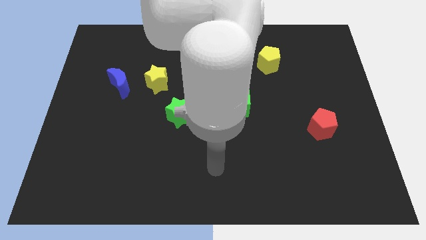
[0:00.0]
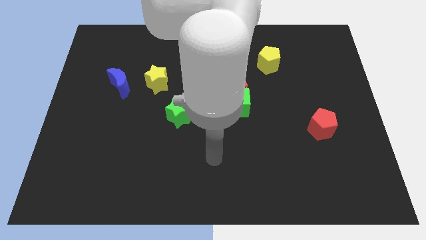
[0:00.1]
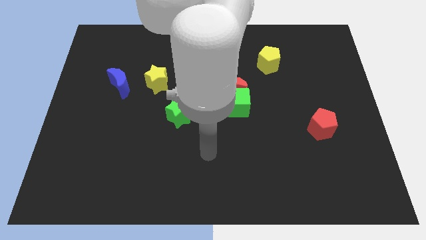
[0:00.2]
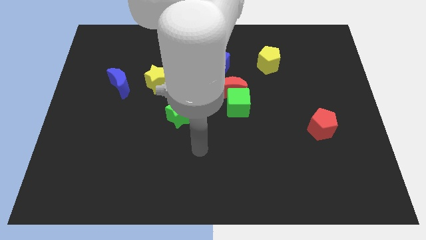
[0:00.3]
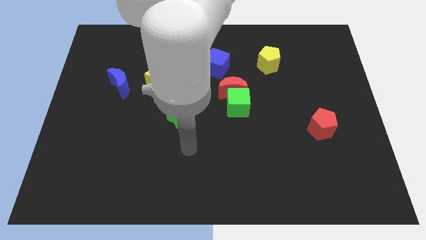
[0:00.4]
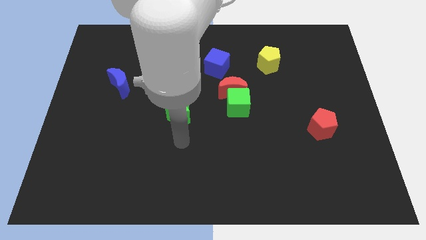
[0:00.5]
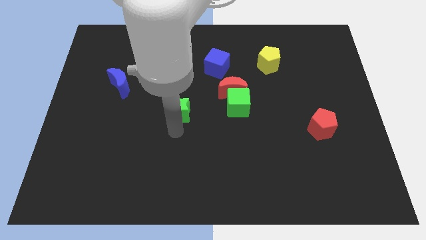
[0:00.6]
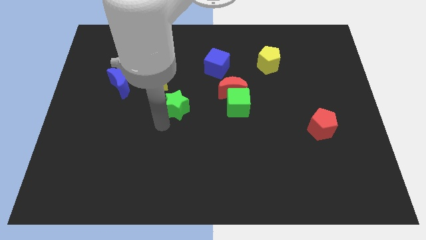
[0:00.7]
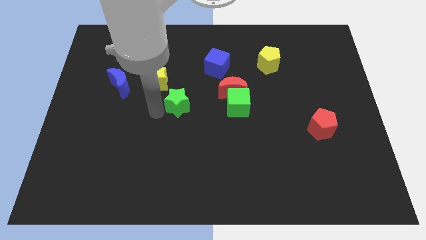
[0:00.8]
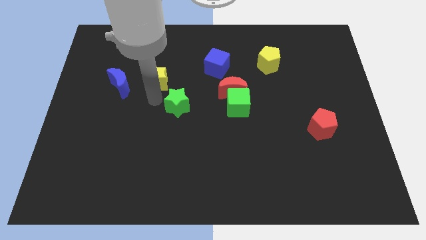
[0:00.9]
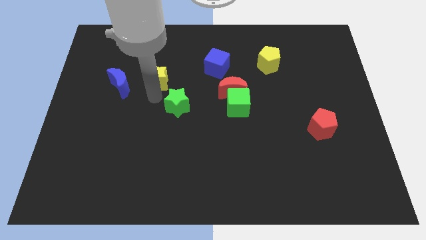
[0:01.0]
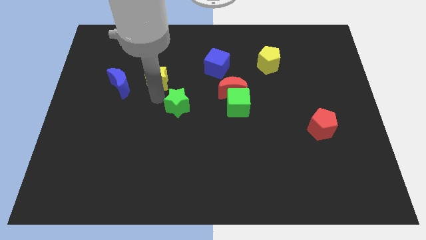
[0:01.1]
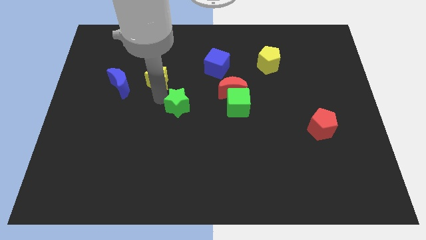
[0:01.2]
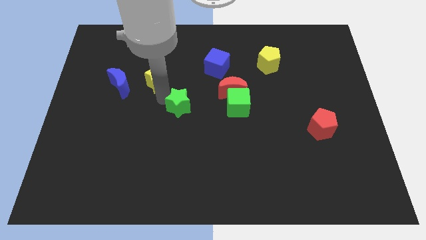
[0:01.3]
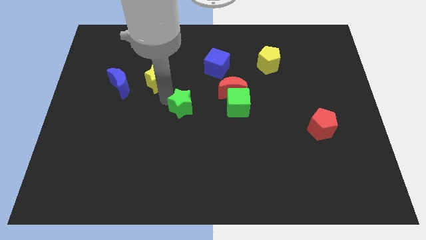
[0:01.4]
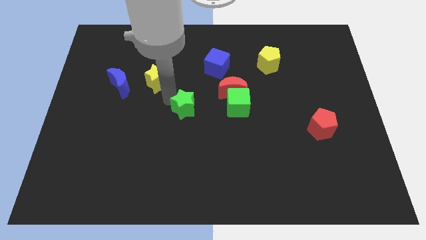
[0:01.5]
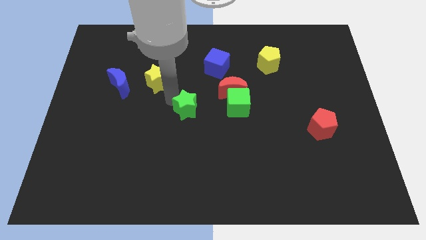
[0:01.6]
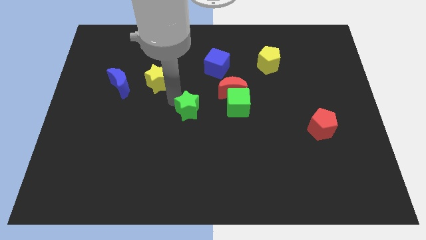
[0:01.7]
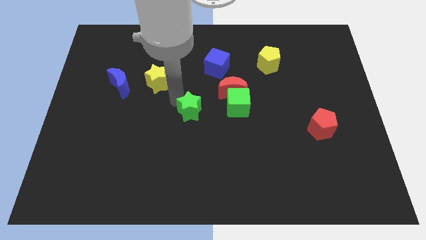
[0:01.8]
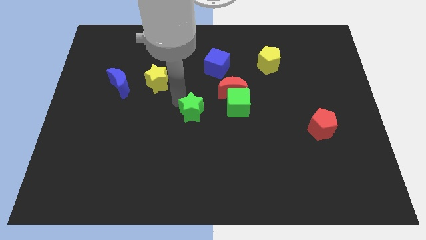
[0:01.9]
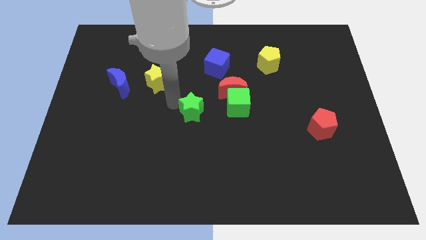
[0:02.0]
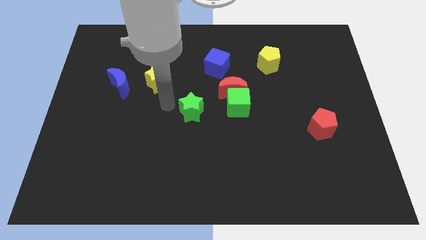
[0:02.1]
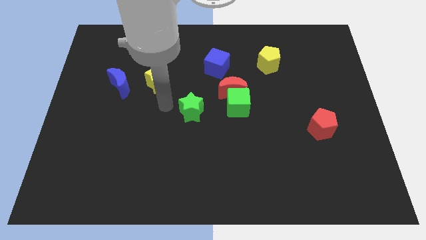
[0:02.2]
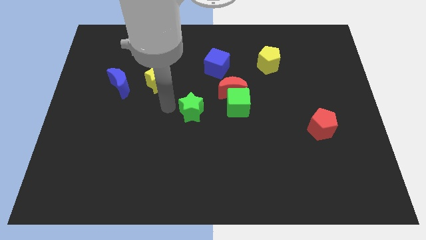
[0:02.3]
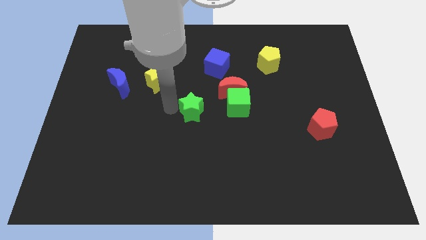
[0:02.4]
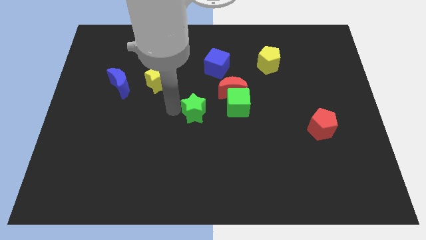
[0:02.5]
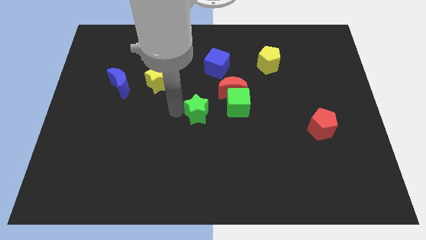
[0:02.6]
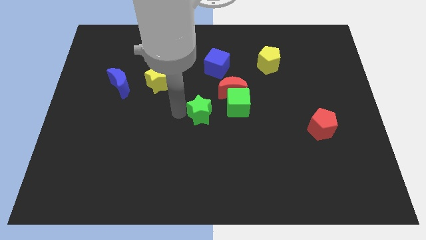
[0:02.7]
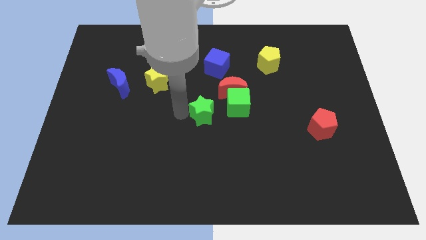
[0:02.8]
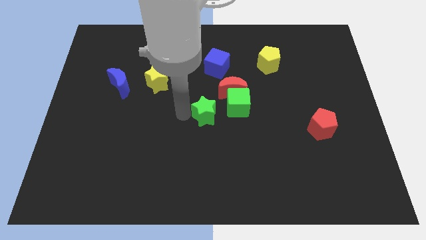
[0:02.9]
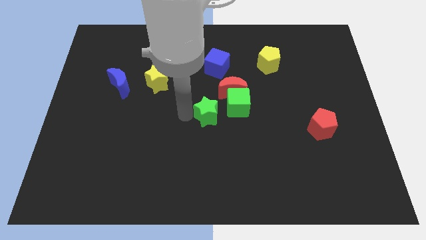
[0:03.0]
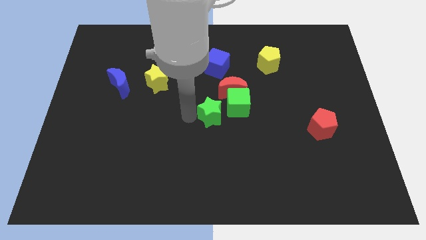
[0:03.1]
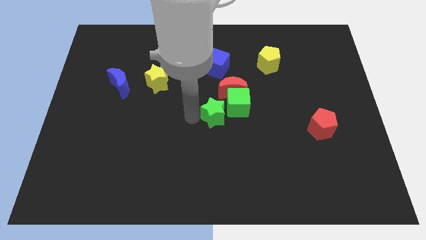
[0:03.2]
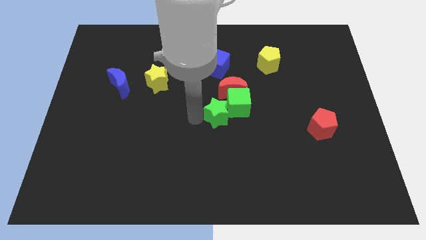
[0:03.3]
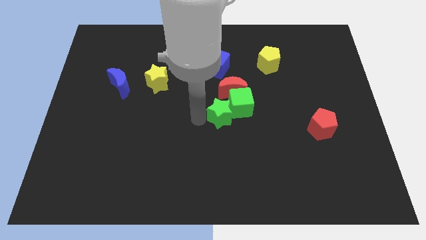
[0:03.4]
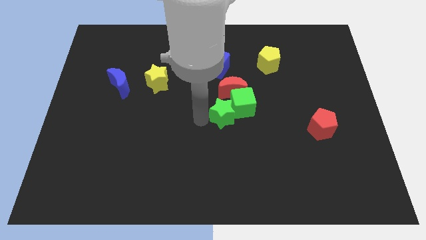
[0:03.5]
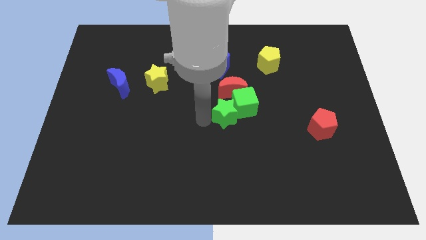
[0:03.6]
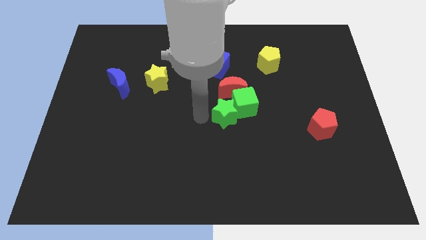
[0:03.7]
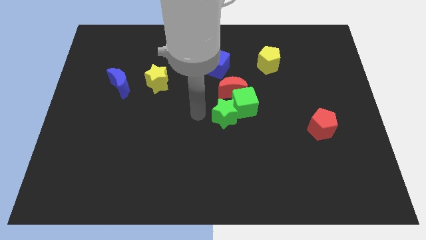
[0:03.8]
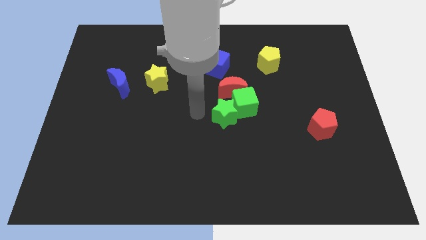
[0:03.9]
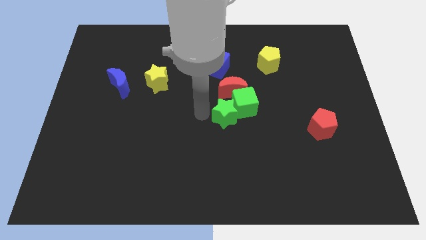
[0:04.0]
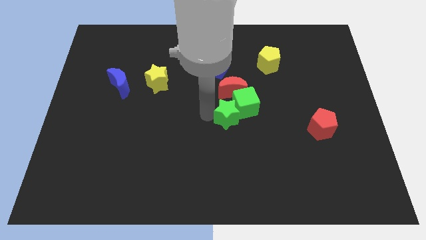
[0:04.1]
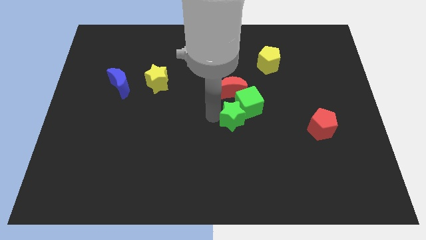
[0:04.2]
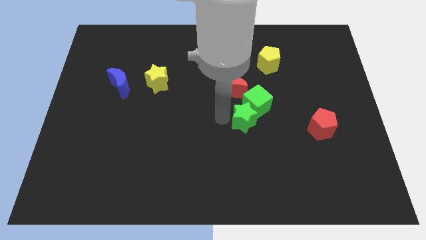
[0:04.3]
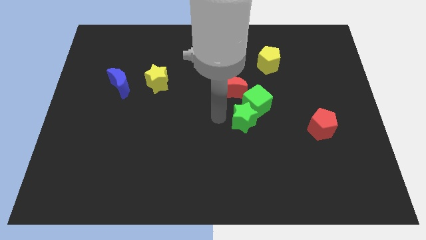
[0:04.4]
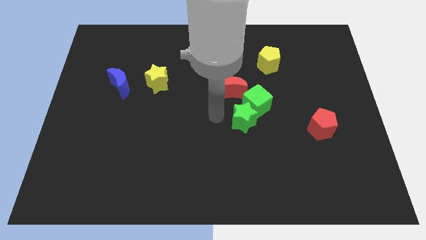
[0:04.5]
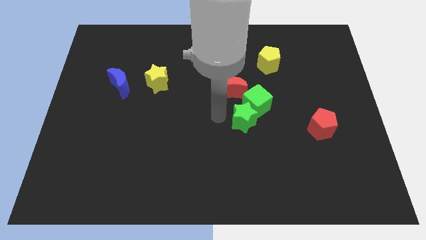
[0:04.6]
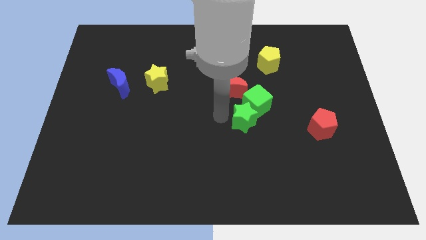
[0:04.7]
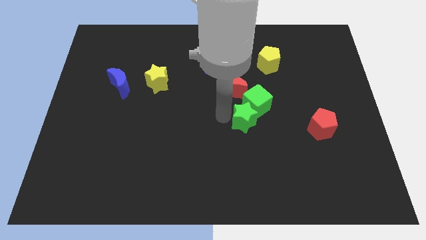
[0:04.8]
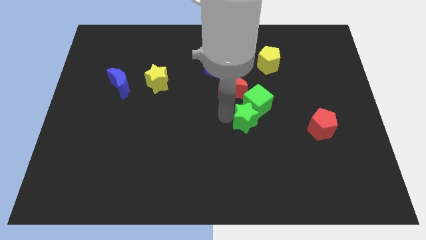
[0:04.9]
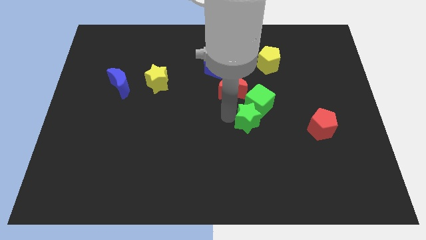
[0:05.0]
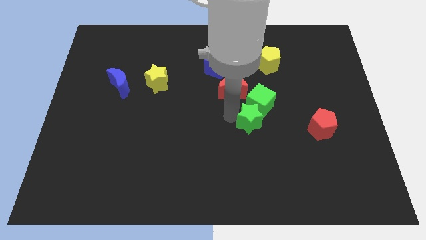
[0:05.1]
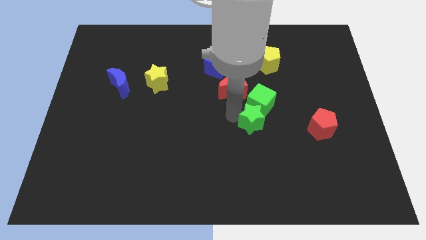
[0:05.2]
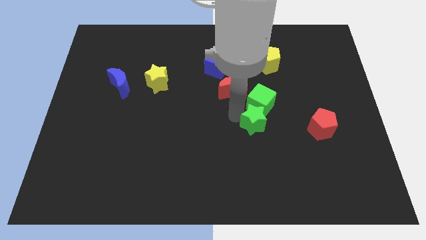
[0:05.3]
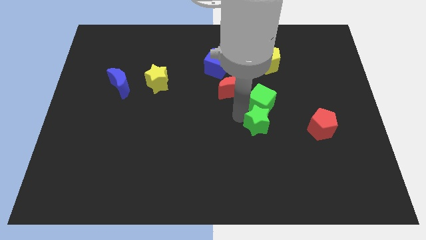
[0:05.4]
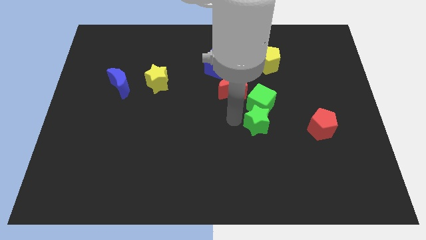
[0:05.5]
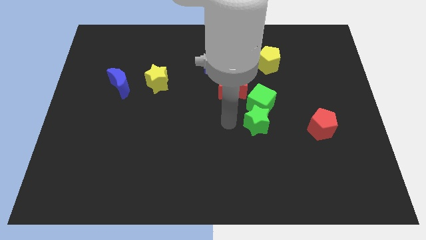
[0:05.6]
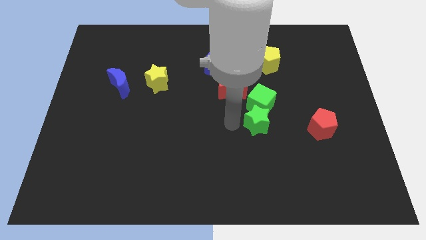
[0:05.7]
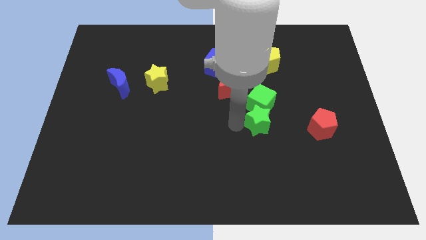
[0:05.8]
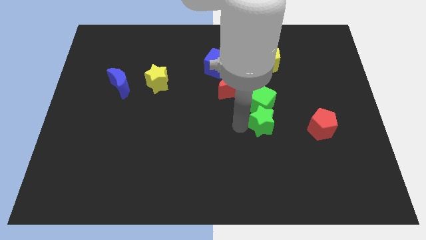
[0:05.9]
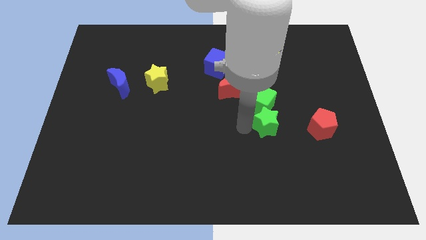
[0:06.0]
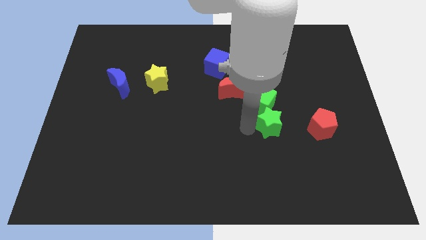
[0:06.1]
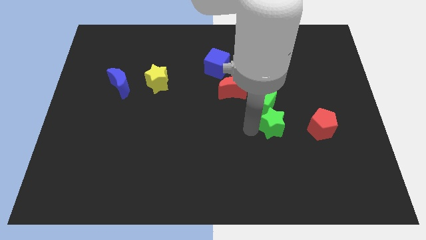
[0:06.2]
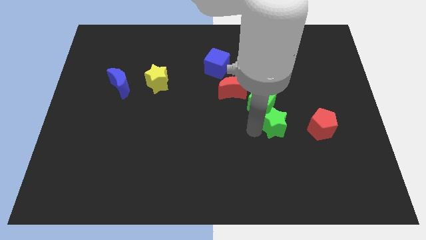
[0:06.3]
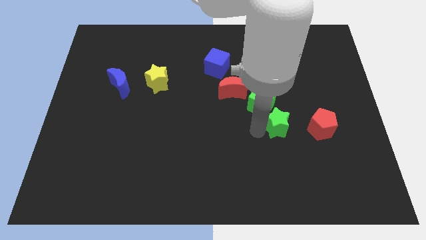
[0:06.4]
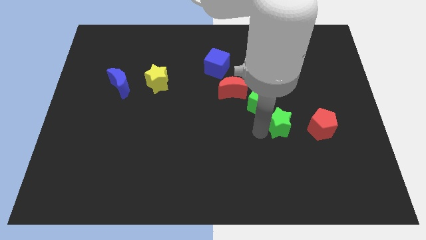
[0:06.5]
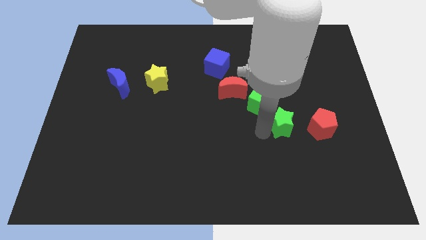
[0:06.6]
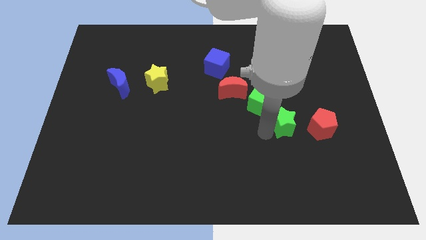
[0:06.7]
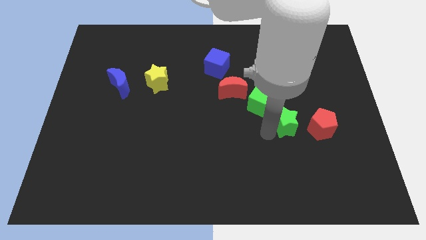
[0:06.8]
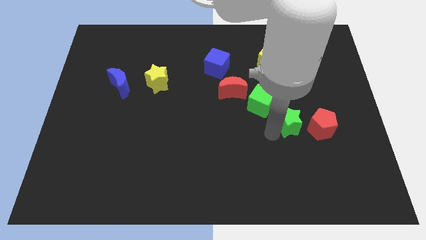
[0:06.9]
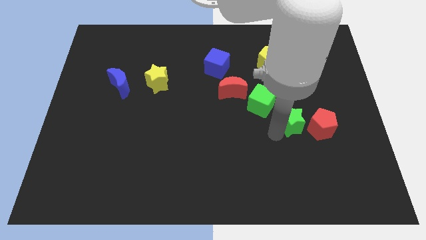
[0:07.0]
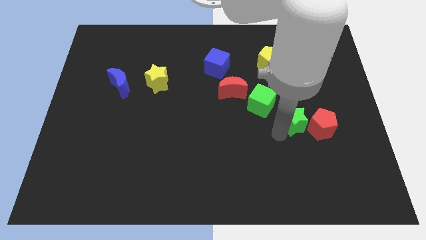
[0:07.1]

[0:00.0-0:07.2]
push the green star to the red pentagon

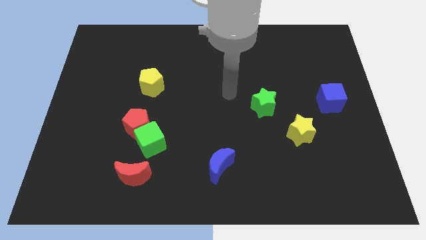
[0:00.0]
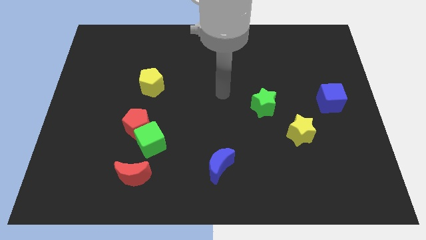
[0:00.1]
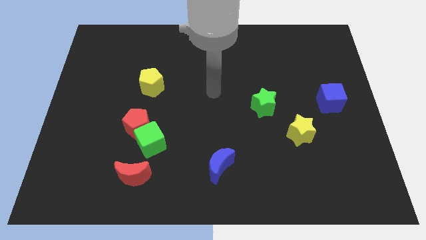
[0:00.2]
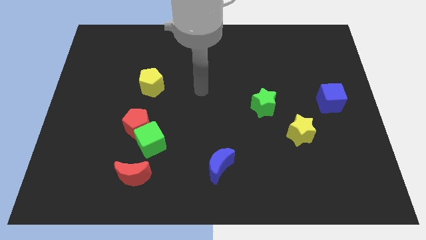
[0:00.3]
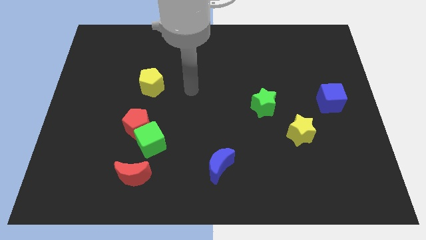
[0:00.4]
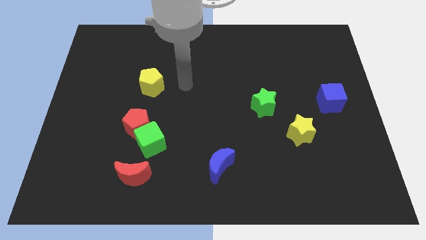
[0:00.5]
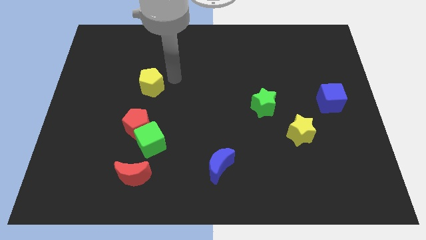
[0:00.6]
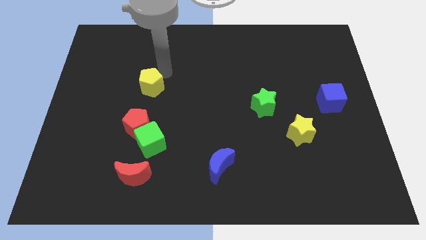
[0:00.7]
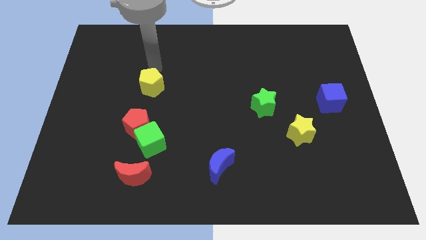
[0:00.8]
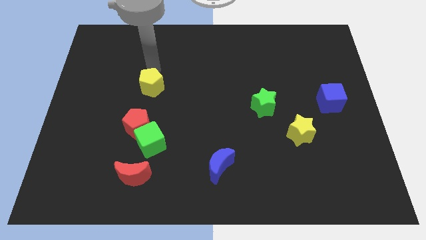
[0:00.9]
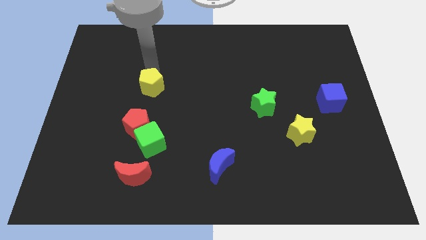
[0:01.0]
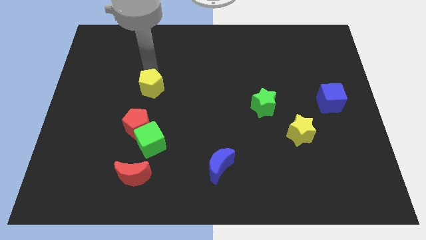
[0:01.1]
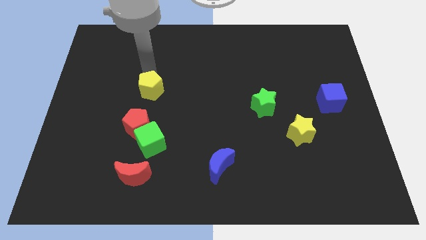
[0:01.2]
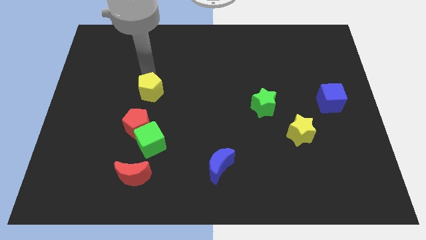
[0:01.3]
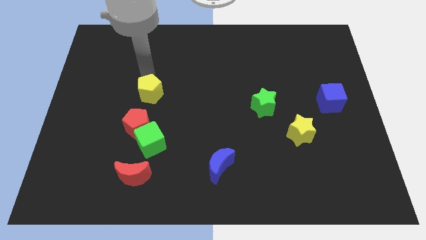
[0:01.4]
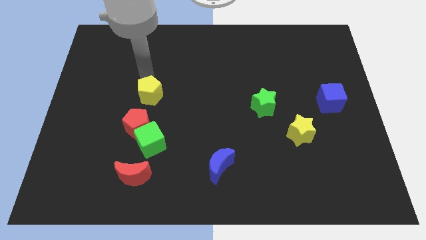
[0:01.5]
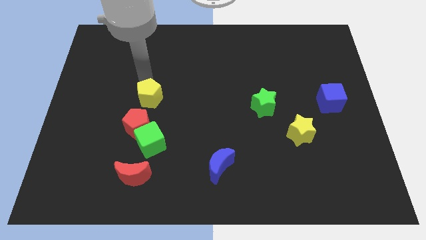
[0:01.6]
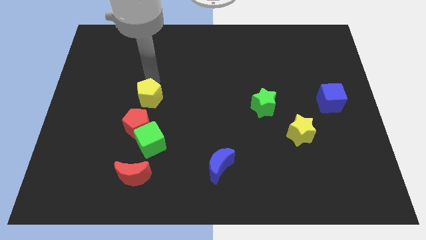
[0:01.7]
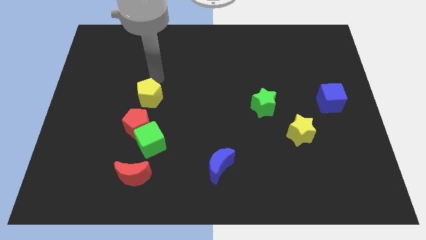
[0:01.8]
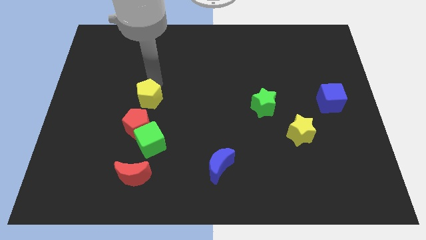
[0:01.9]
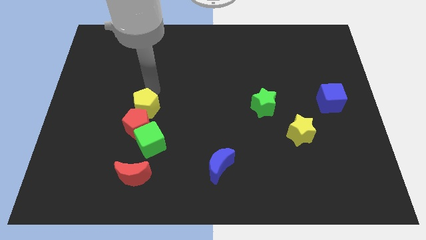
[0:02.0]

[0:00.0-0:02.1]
slide the yellow pentagon to the red pentagon
